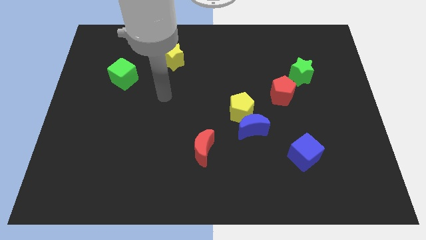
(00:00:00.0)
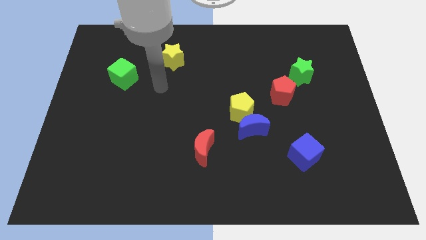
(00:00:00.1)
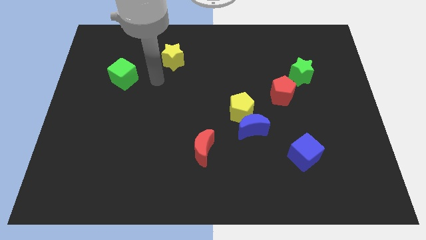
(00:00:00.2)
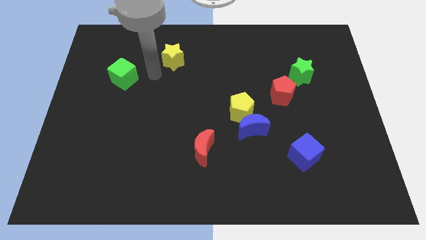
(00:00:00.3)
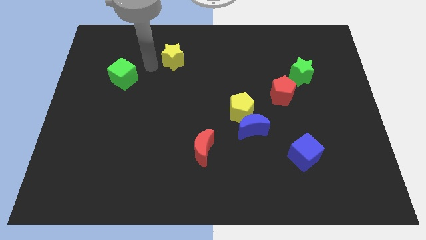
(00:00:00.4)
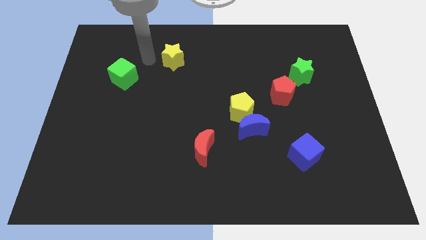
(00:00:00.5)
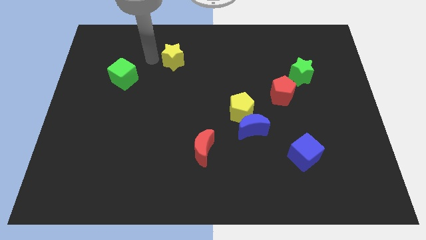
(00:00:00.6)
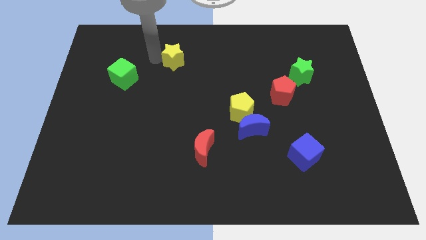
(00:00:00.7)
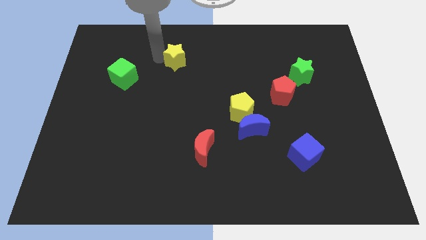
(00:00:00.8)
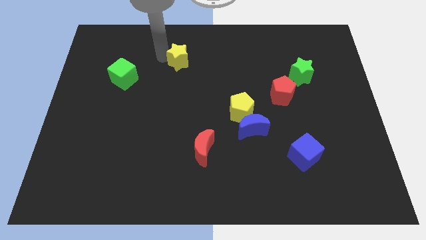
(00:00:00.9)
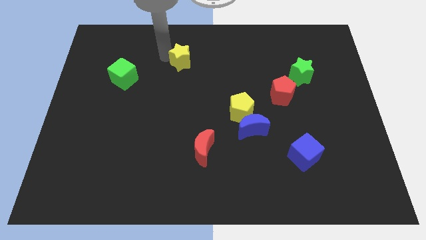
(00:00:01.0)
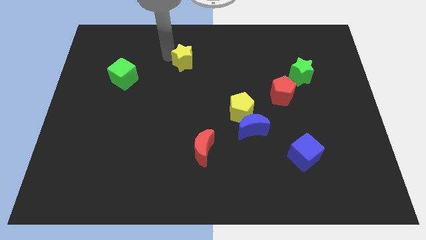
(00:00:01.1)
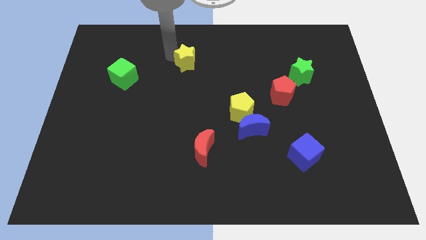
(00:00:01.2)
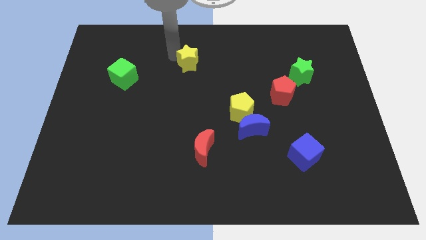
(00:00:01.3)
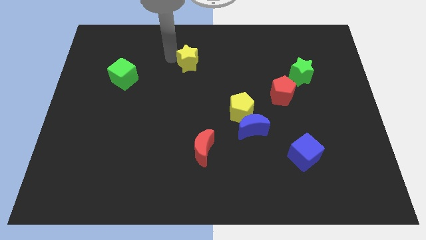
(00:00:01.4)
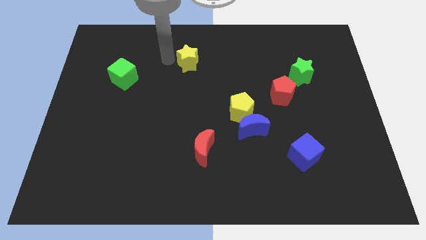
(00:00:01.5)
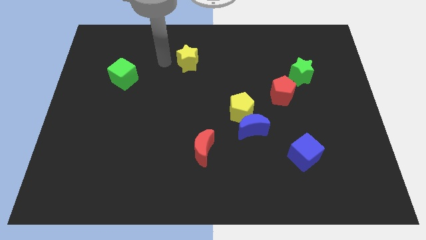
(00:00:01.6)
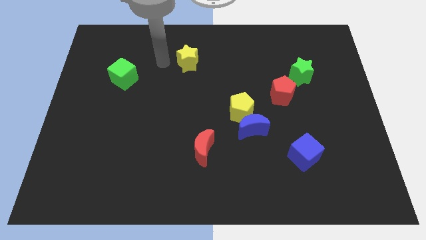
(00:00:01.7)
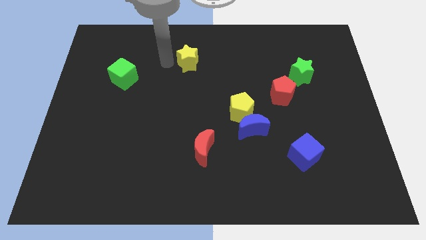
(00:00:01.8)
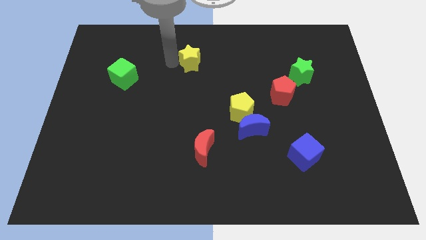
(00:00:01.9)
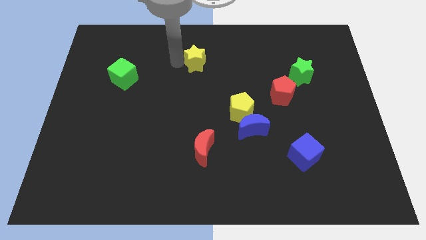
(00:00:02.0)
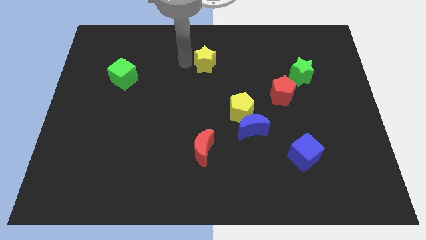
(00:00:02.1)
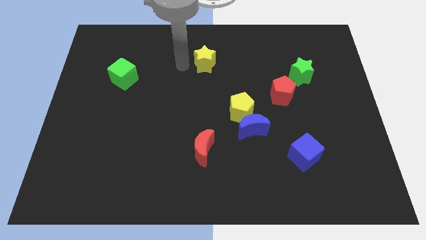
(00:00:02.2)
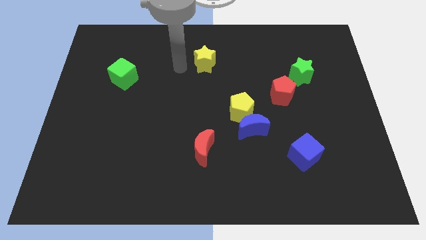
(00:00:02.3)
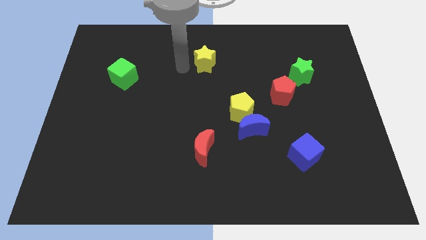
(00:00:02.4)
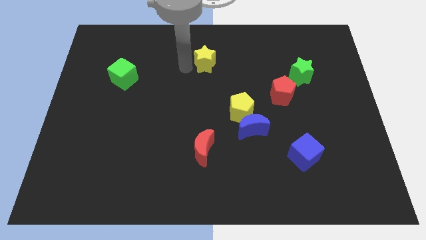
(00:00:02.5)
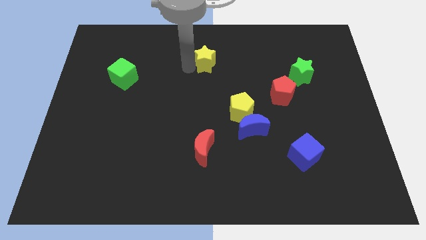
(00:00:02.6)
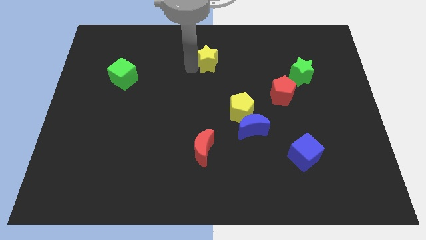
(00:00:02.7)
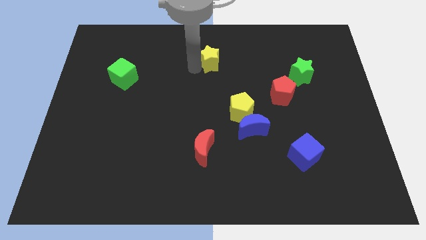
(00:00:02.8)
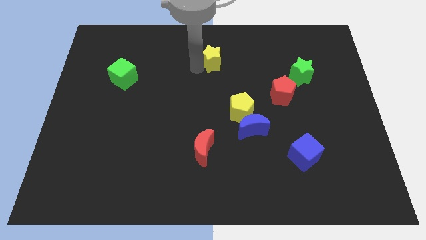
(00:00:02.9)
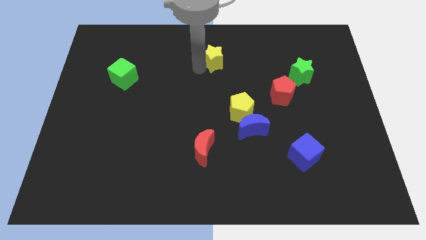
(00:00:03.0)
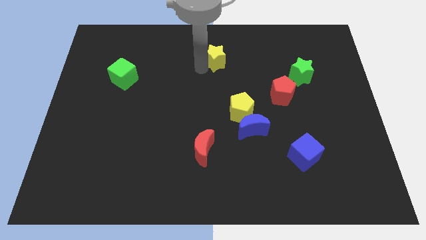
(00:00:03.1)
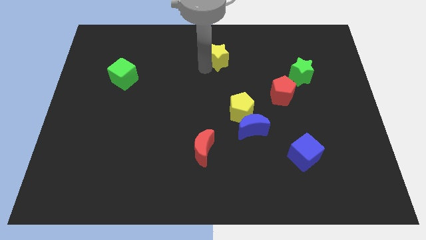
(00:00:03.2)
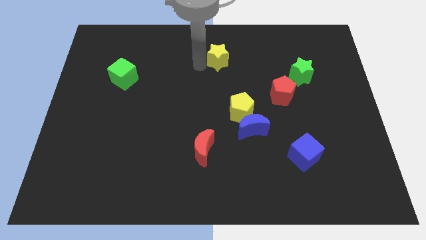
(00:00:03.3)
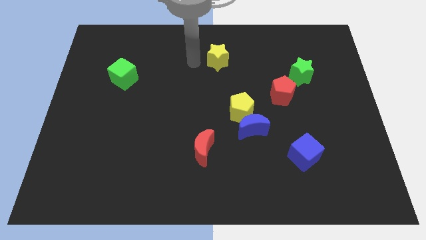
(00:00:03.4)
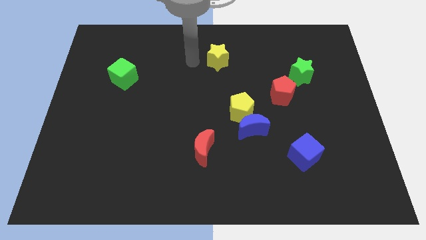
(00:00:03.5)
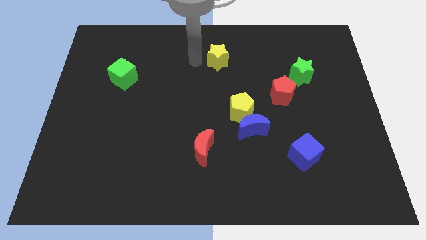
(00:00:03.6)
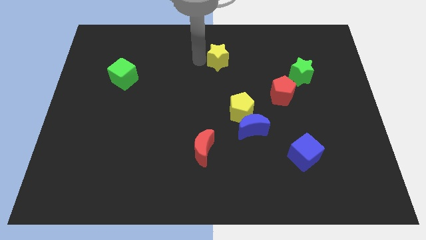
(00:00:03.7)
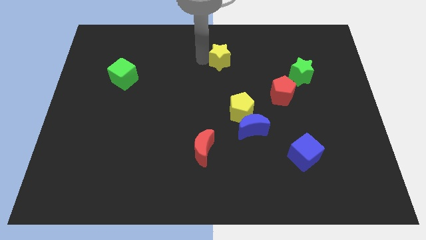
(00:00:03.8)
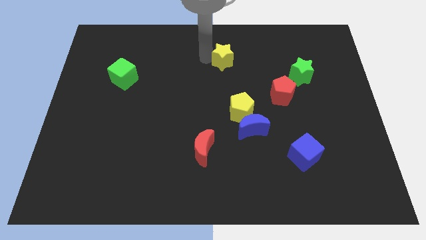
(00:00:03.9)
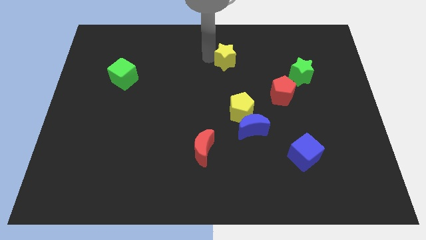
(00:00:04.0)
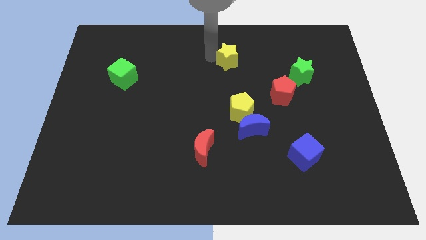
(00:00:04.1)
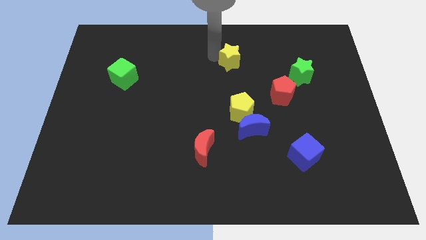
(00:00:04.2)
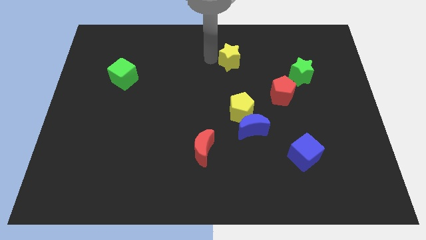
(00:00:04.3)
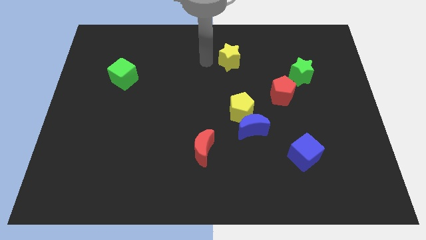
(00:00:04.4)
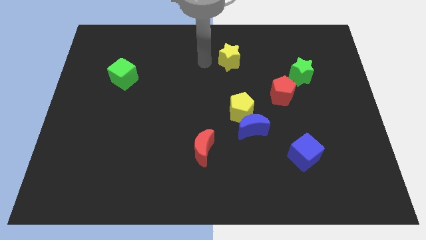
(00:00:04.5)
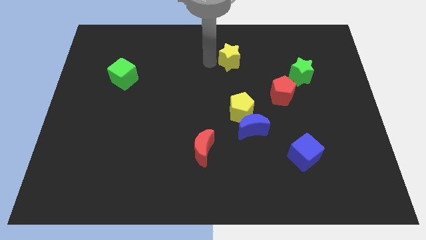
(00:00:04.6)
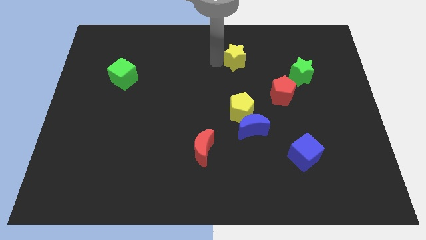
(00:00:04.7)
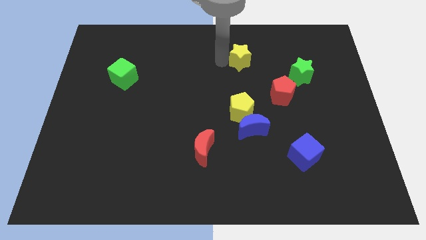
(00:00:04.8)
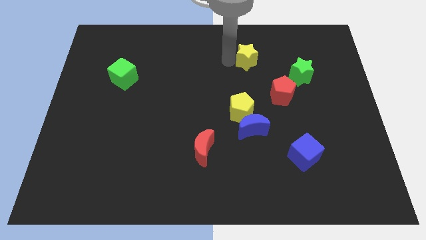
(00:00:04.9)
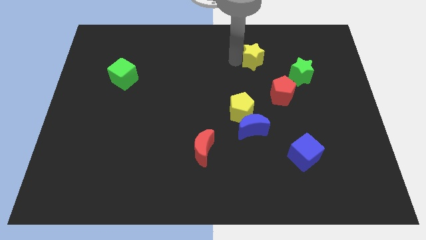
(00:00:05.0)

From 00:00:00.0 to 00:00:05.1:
slide the yellow star to the right

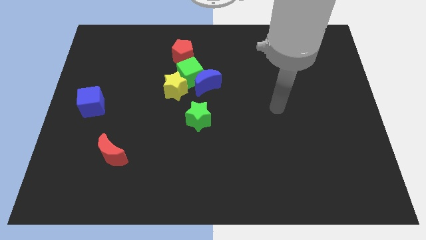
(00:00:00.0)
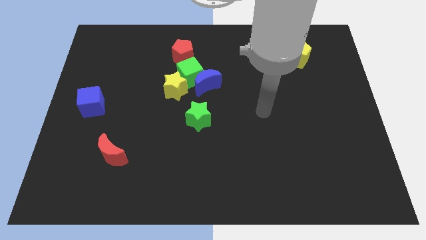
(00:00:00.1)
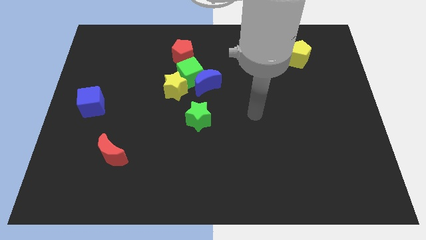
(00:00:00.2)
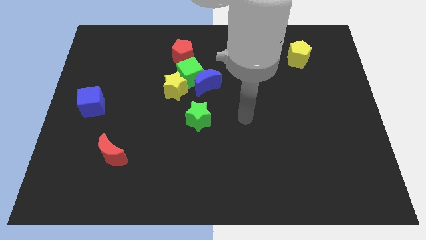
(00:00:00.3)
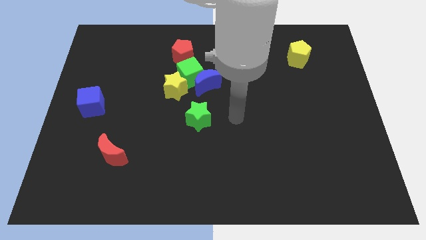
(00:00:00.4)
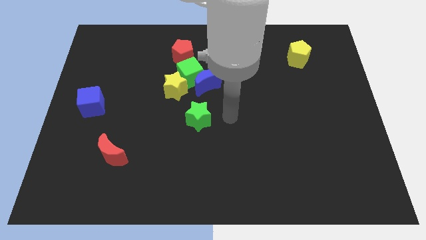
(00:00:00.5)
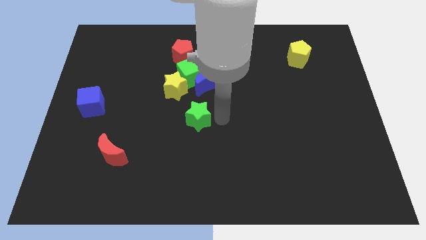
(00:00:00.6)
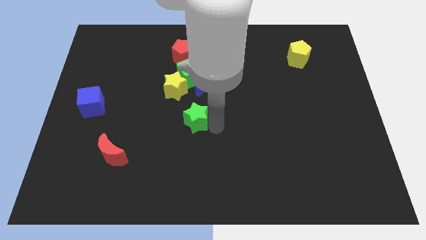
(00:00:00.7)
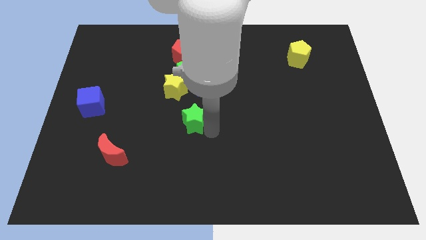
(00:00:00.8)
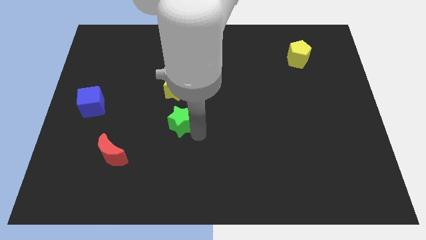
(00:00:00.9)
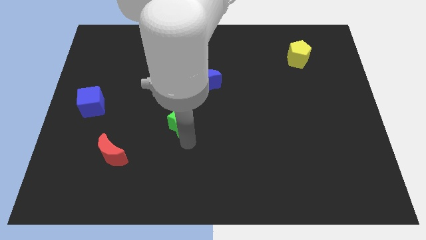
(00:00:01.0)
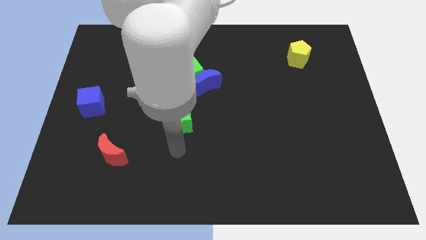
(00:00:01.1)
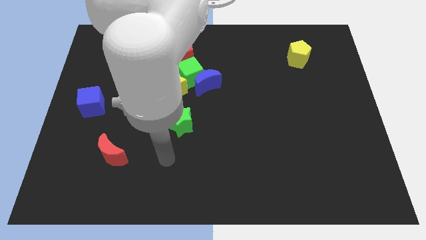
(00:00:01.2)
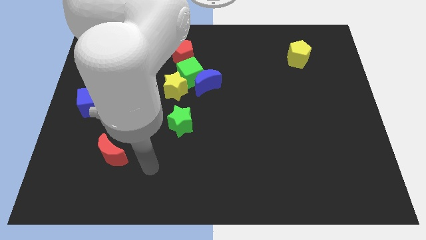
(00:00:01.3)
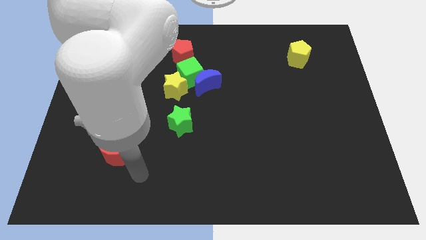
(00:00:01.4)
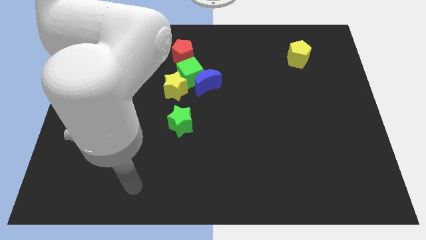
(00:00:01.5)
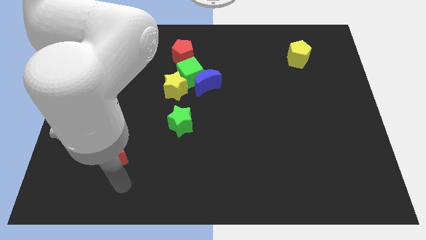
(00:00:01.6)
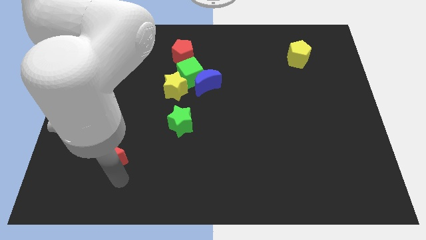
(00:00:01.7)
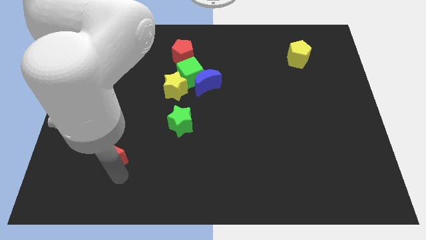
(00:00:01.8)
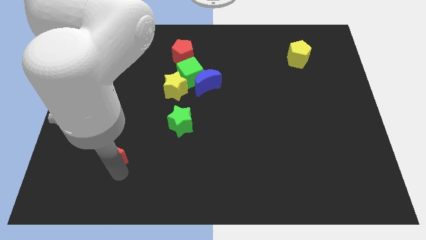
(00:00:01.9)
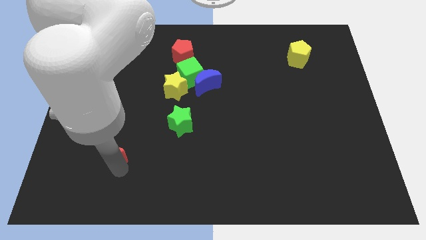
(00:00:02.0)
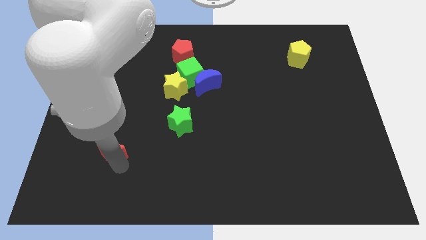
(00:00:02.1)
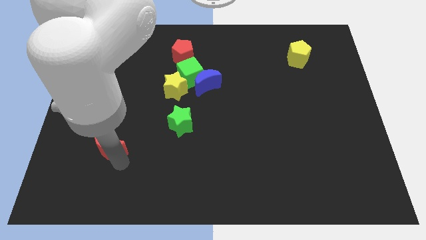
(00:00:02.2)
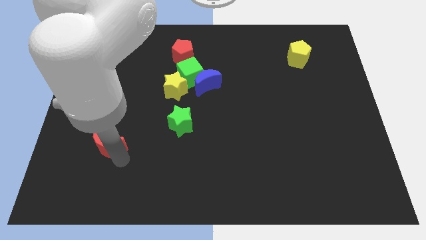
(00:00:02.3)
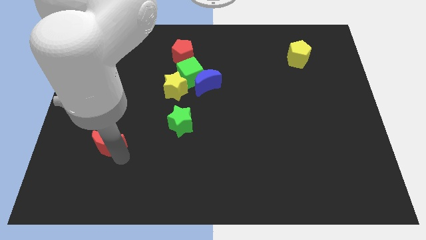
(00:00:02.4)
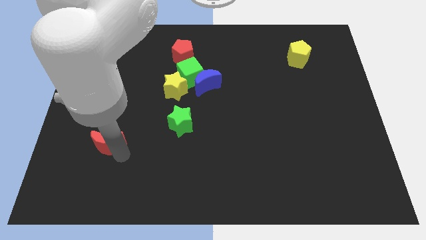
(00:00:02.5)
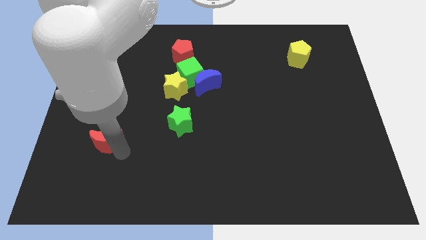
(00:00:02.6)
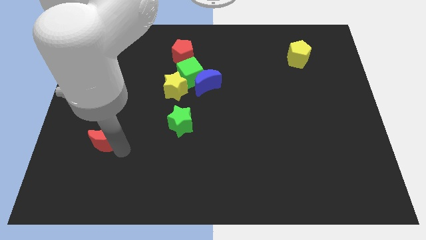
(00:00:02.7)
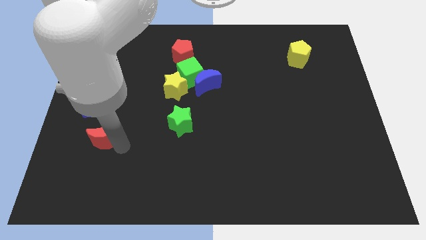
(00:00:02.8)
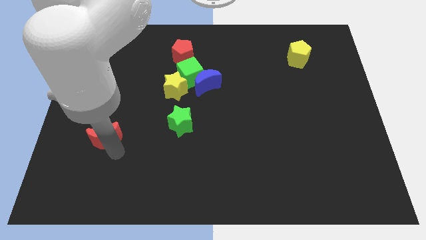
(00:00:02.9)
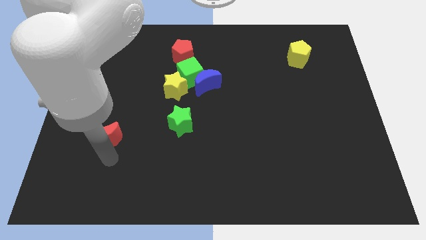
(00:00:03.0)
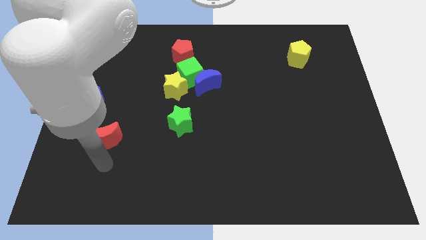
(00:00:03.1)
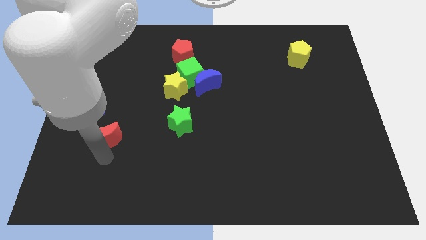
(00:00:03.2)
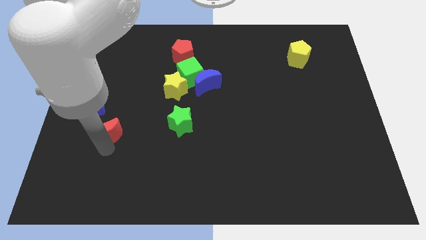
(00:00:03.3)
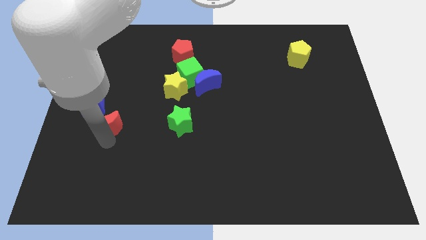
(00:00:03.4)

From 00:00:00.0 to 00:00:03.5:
slide the red moon a little bit upwards
